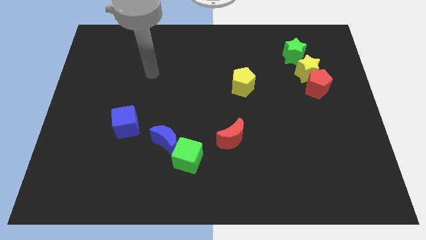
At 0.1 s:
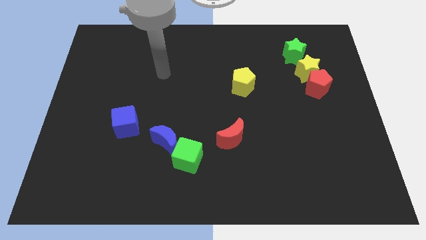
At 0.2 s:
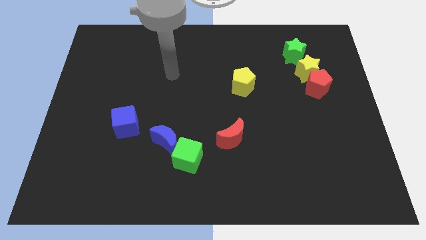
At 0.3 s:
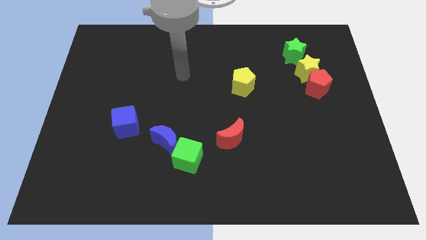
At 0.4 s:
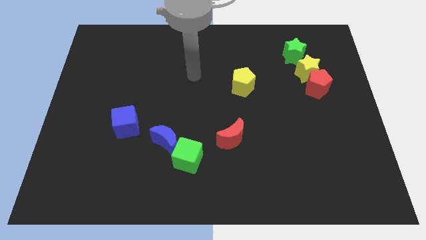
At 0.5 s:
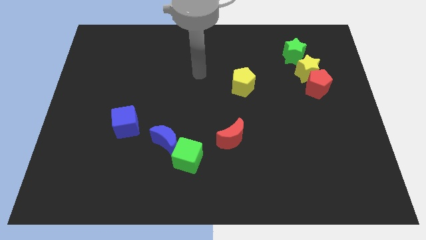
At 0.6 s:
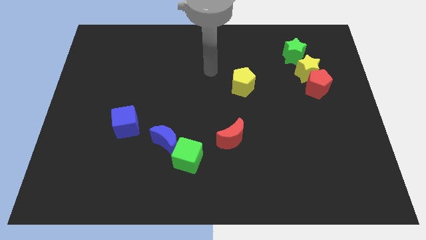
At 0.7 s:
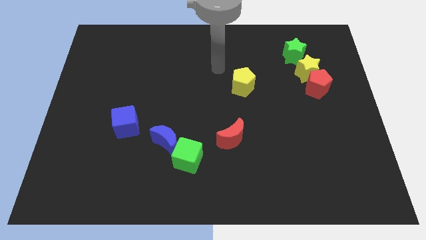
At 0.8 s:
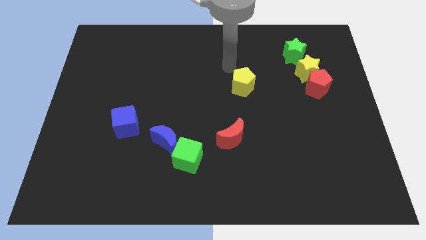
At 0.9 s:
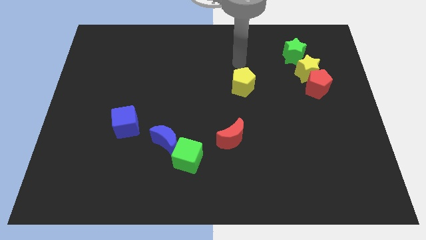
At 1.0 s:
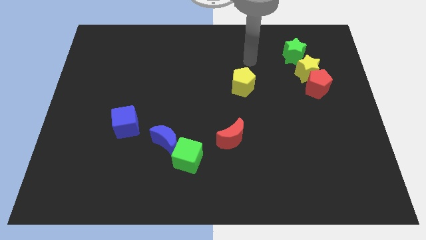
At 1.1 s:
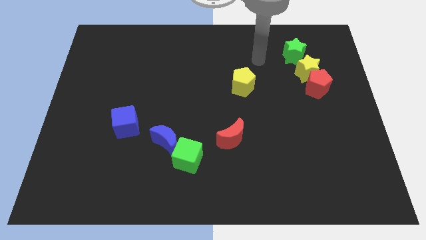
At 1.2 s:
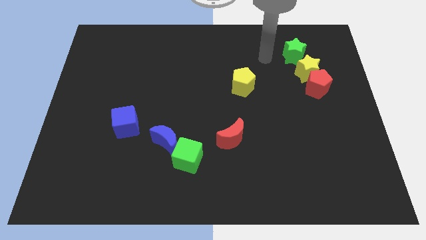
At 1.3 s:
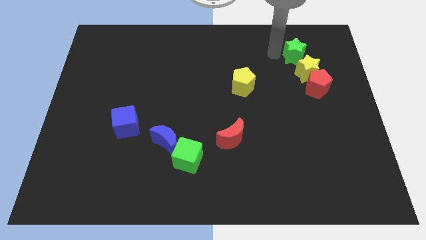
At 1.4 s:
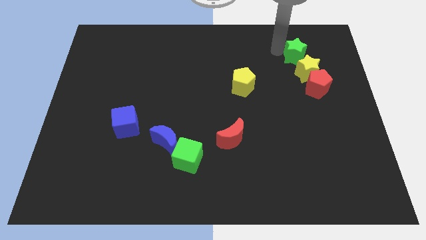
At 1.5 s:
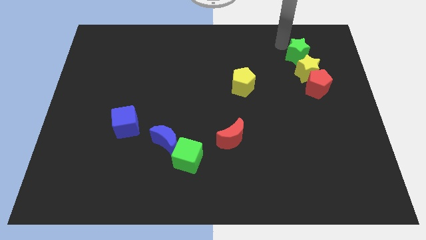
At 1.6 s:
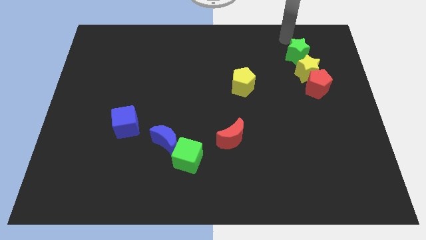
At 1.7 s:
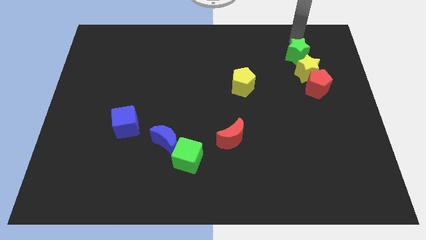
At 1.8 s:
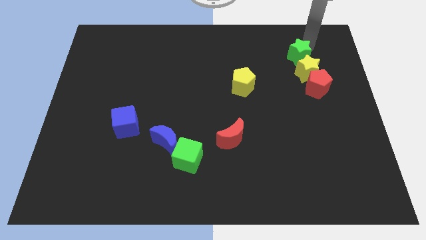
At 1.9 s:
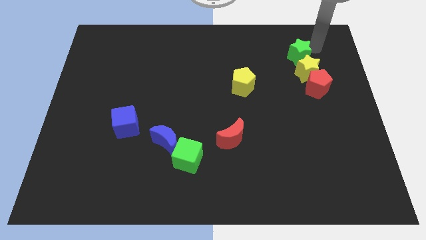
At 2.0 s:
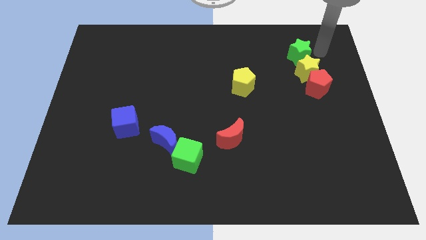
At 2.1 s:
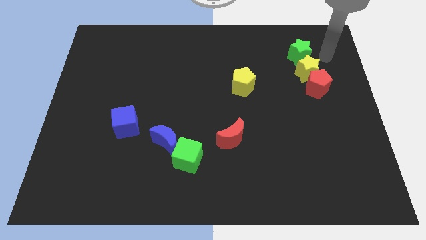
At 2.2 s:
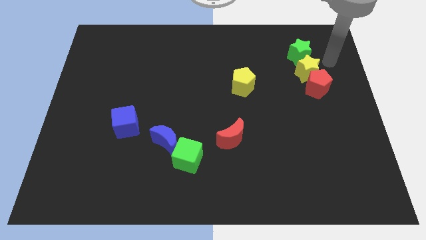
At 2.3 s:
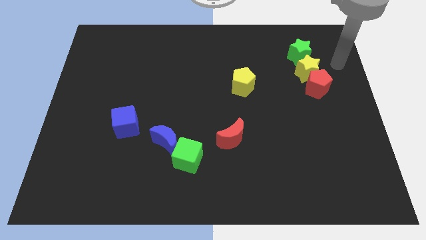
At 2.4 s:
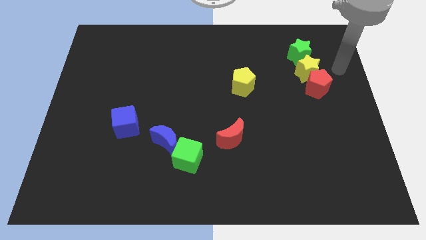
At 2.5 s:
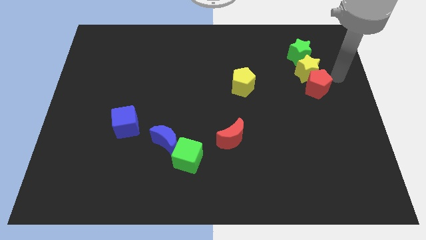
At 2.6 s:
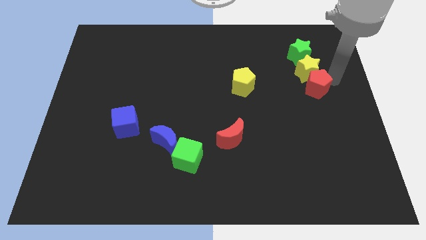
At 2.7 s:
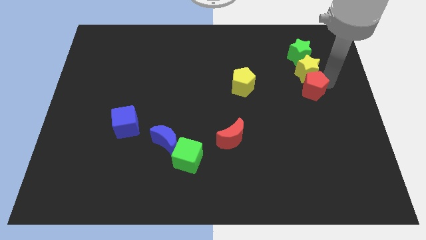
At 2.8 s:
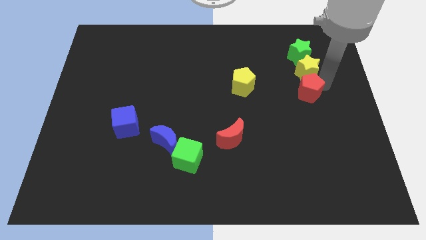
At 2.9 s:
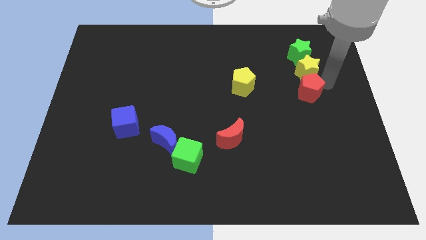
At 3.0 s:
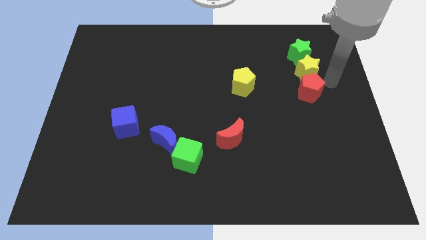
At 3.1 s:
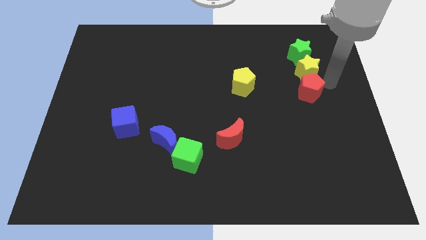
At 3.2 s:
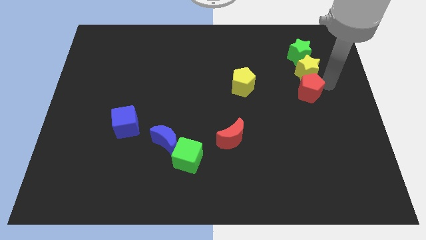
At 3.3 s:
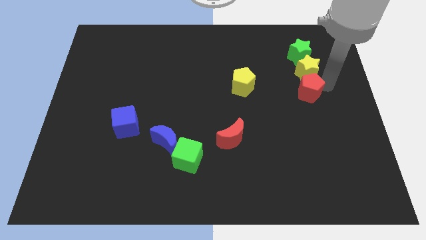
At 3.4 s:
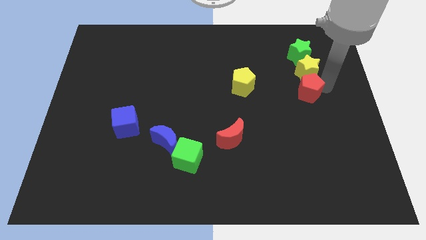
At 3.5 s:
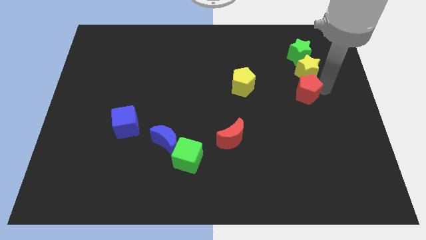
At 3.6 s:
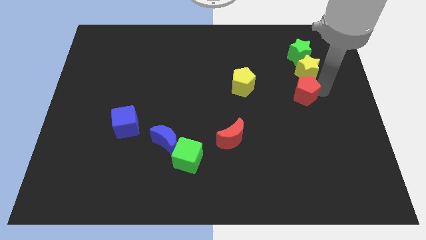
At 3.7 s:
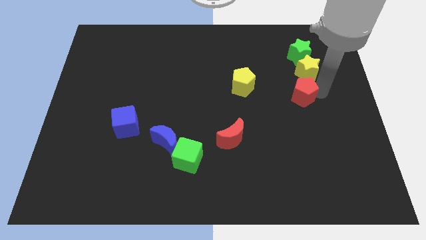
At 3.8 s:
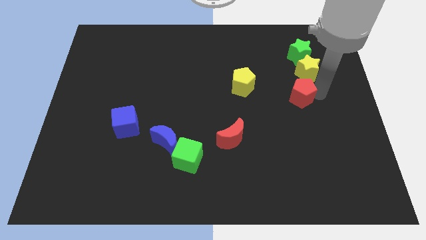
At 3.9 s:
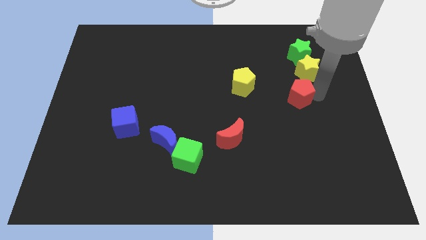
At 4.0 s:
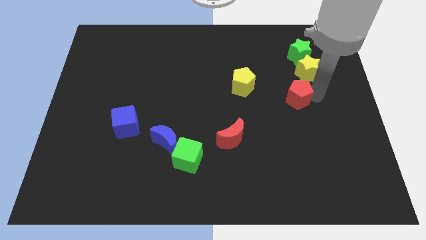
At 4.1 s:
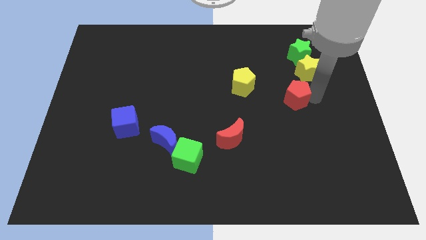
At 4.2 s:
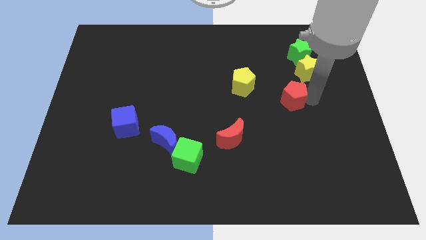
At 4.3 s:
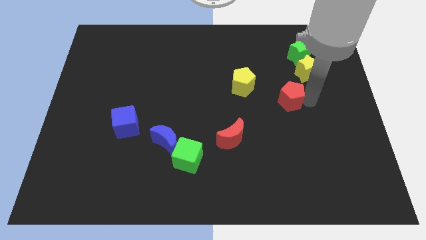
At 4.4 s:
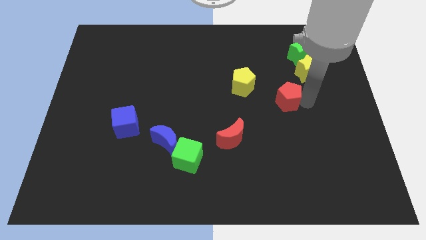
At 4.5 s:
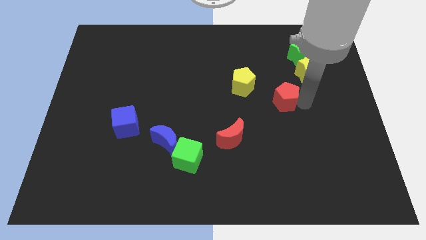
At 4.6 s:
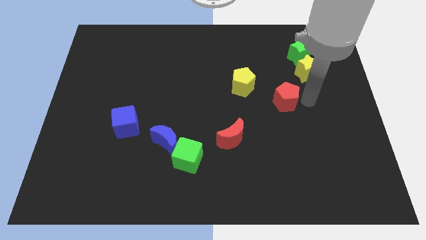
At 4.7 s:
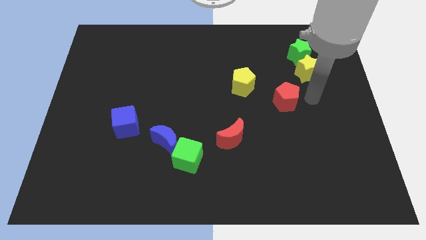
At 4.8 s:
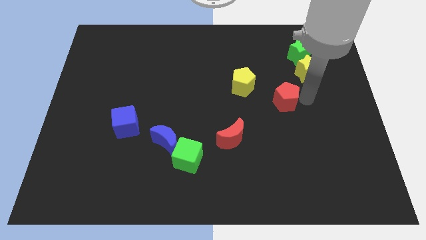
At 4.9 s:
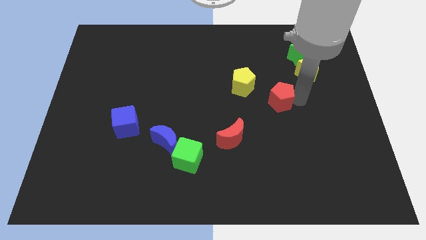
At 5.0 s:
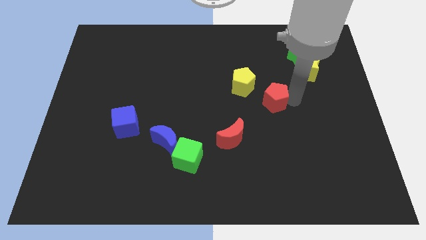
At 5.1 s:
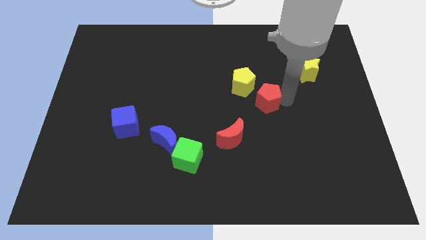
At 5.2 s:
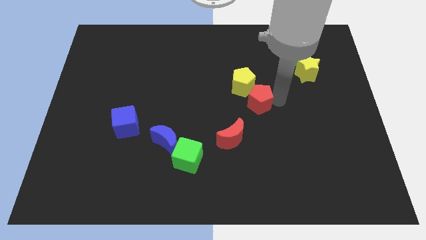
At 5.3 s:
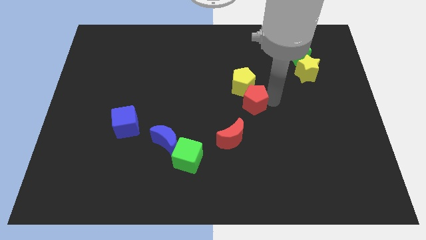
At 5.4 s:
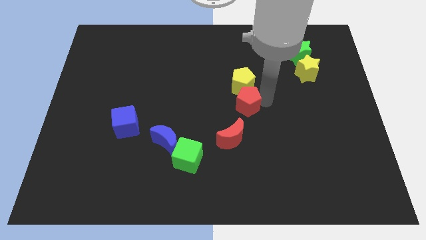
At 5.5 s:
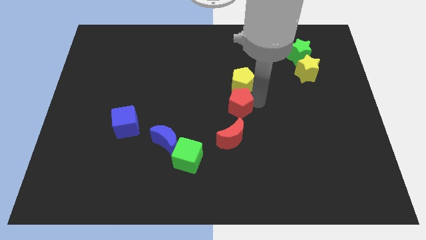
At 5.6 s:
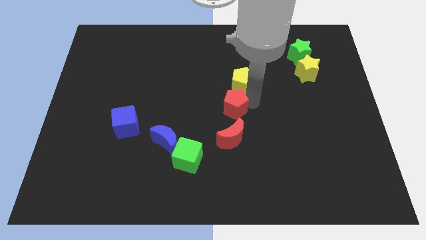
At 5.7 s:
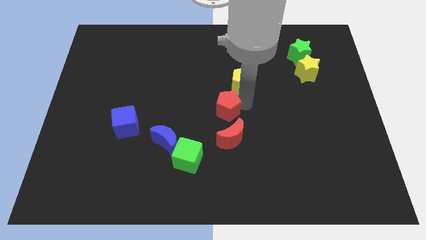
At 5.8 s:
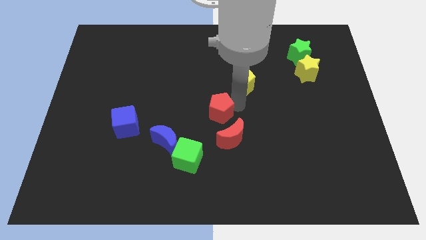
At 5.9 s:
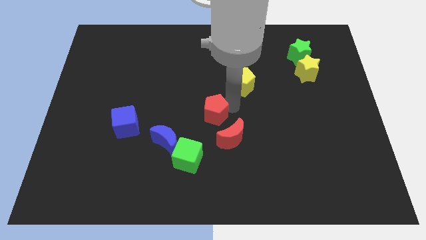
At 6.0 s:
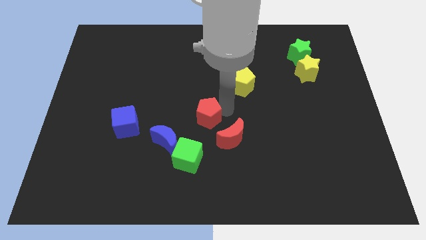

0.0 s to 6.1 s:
move the red pentagon to the top side of the green cube

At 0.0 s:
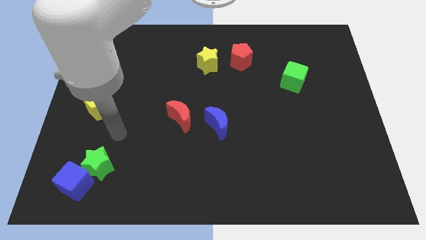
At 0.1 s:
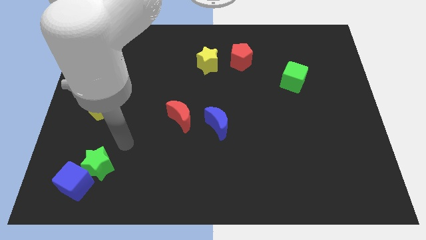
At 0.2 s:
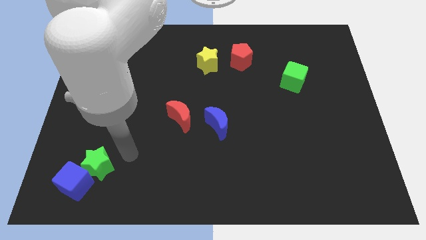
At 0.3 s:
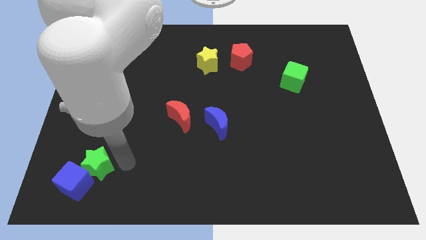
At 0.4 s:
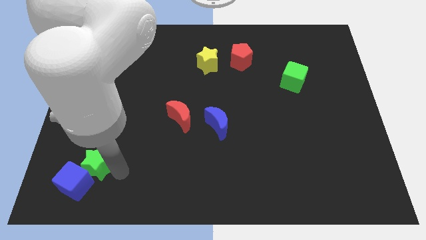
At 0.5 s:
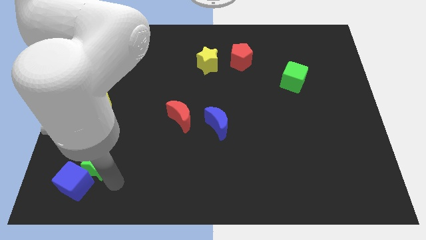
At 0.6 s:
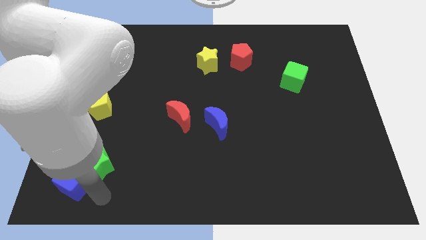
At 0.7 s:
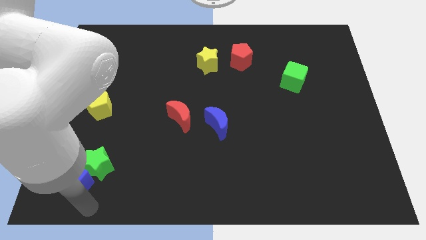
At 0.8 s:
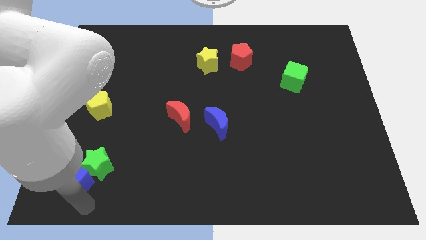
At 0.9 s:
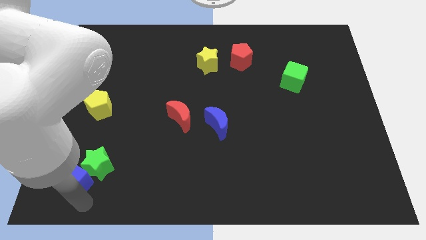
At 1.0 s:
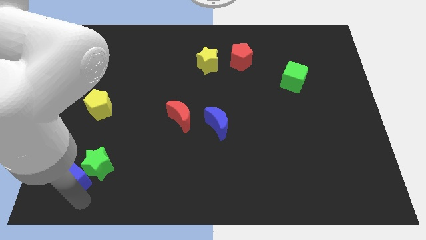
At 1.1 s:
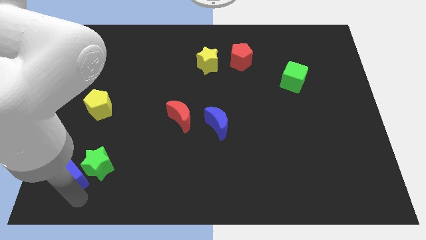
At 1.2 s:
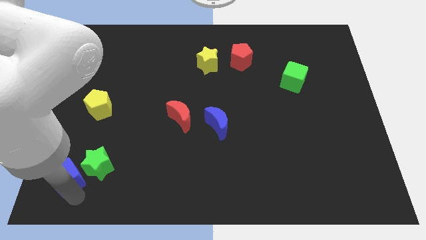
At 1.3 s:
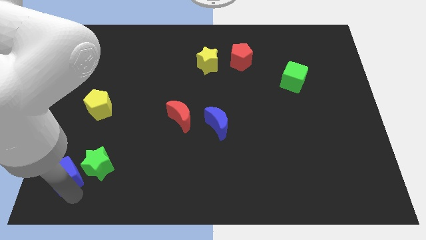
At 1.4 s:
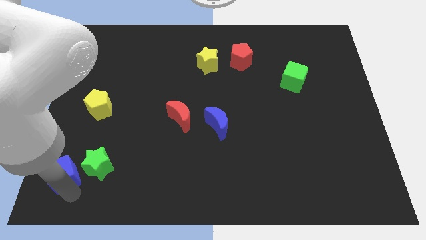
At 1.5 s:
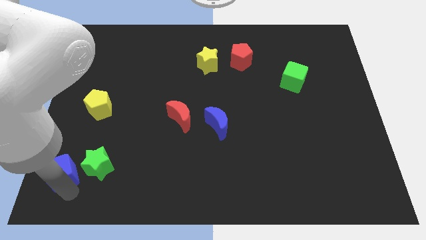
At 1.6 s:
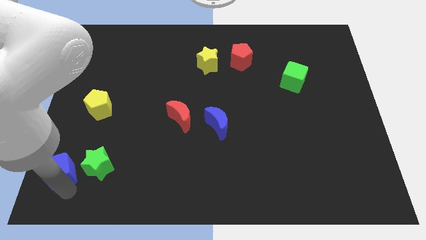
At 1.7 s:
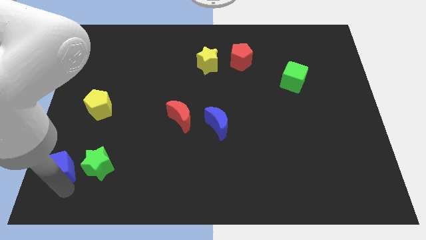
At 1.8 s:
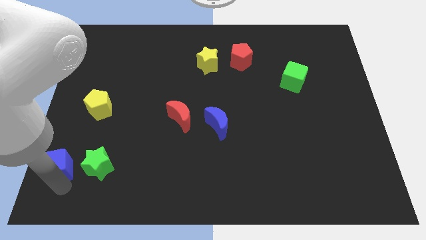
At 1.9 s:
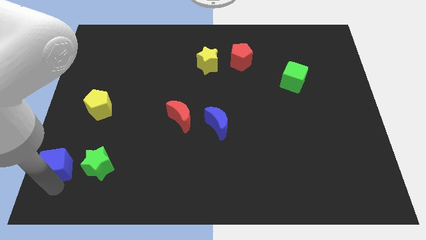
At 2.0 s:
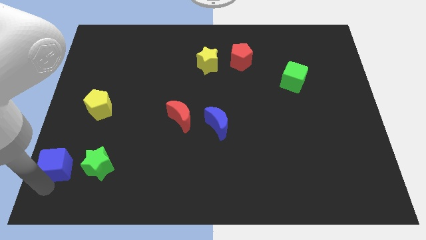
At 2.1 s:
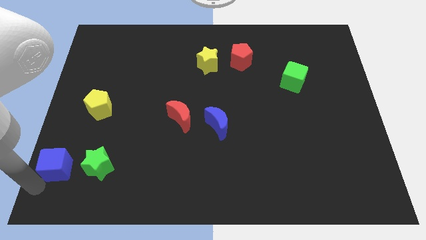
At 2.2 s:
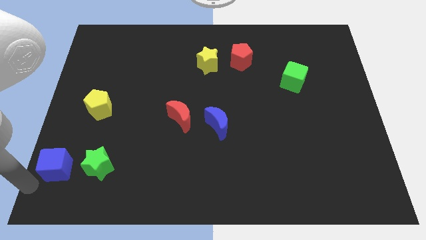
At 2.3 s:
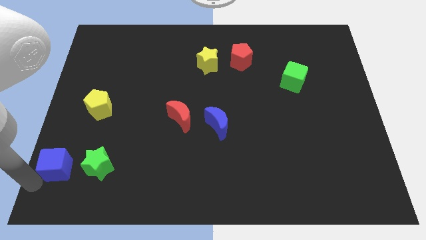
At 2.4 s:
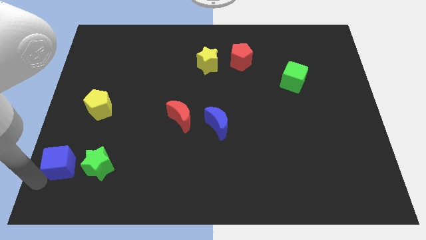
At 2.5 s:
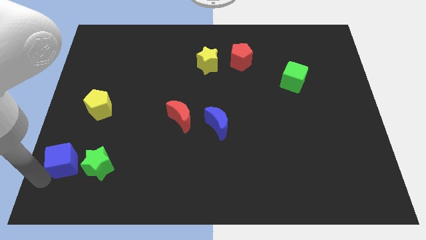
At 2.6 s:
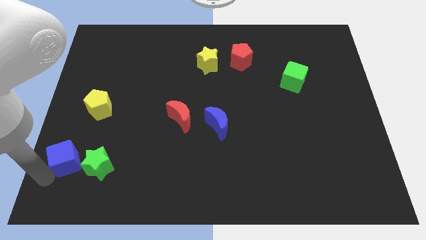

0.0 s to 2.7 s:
move the blue cube to the bottom of the yellow pentagon
